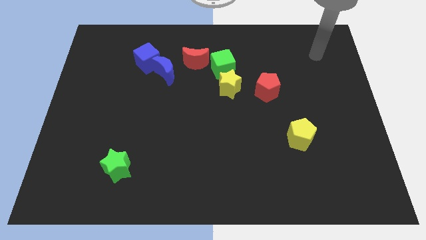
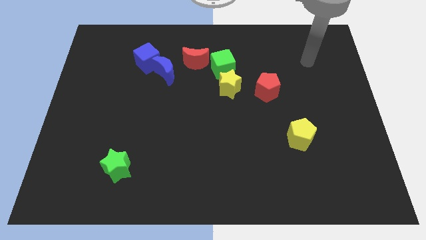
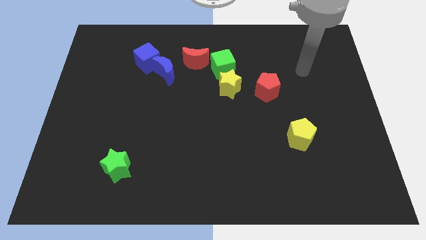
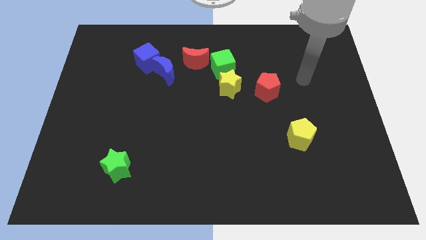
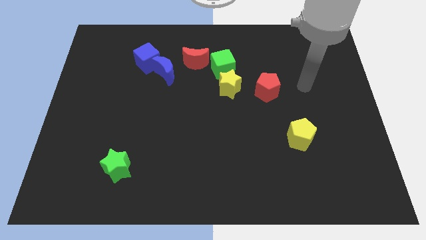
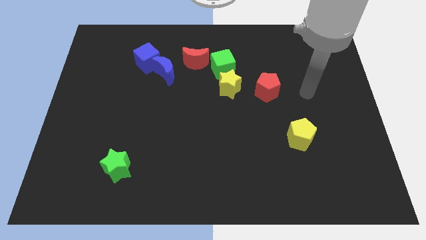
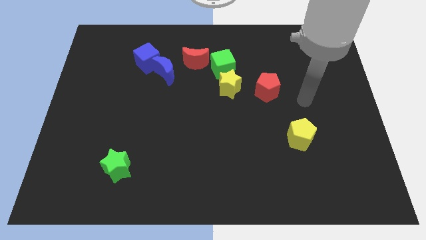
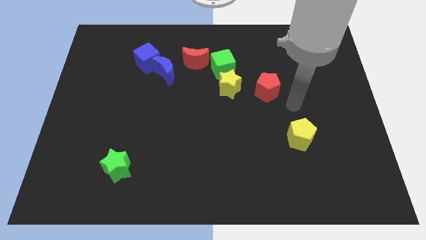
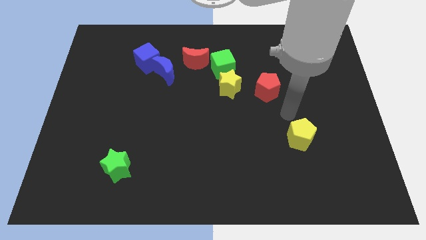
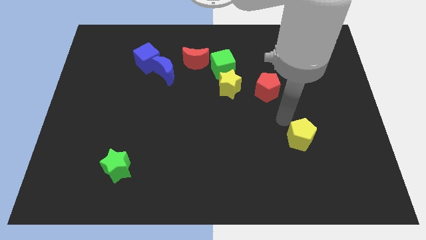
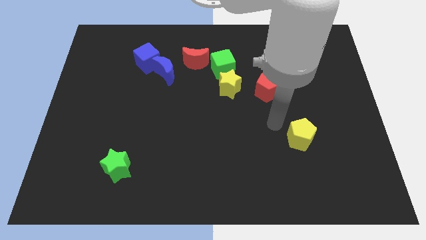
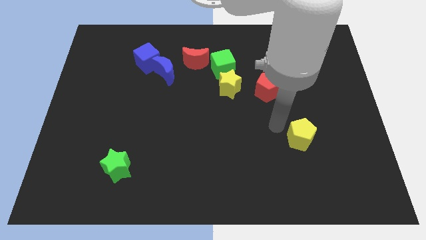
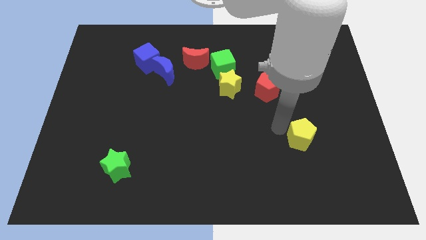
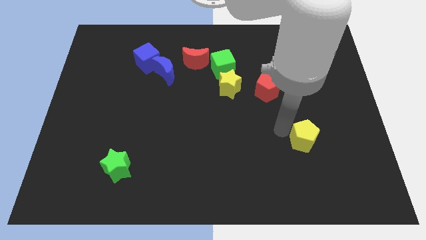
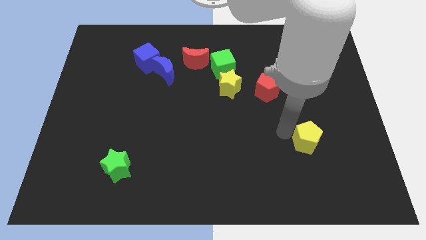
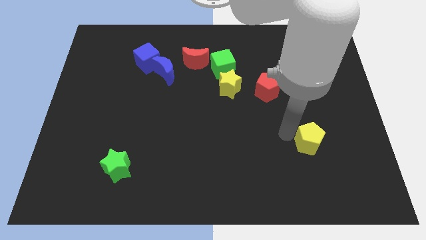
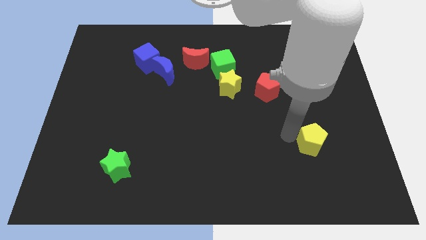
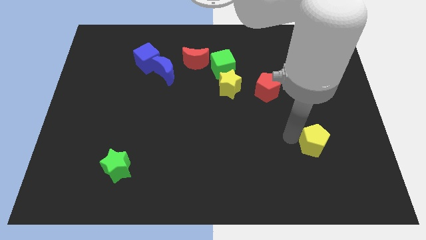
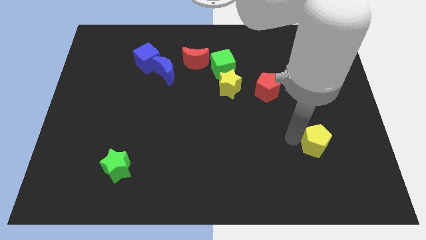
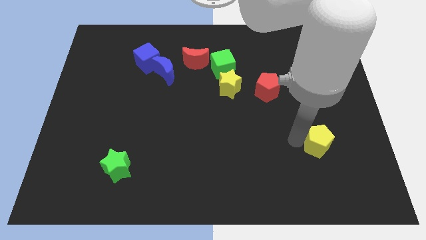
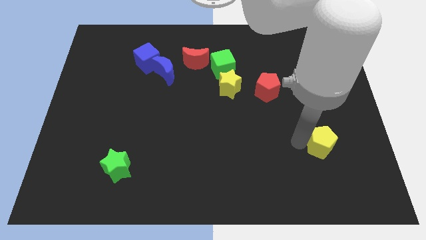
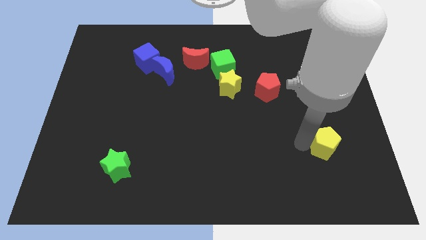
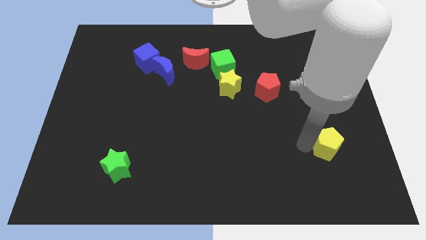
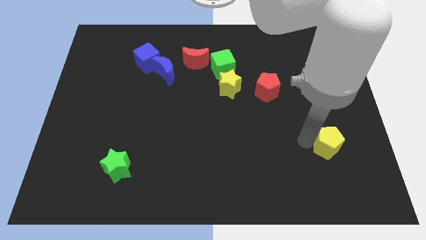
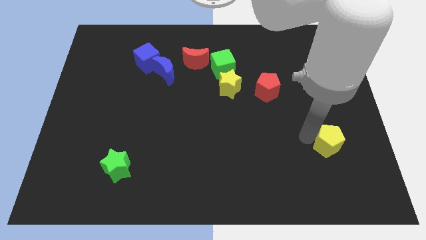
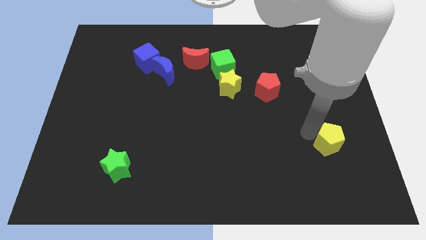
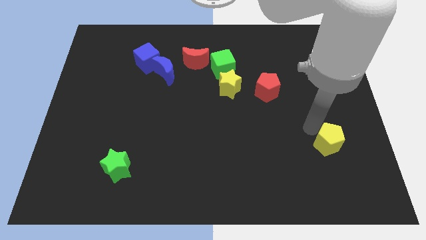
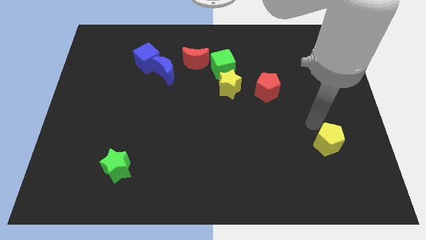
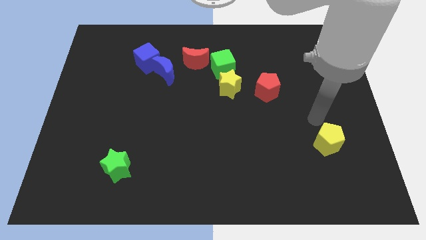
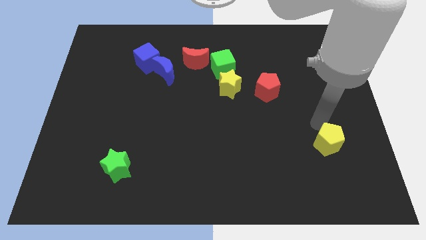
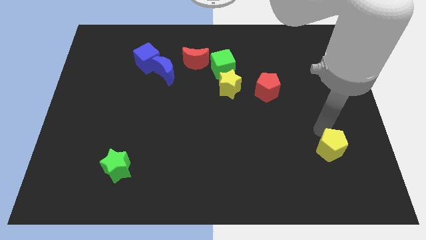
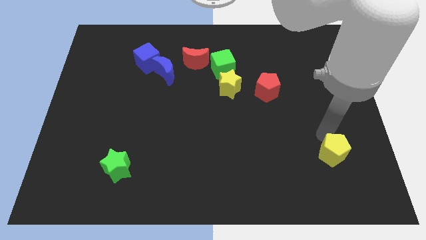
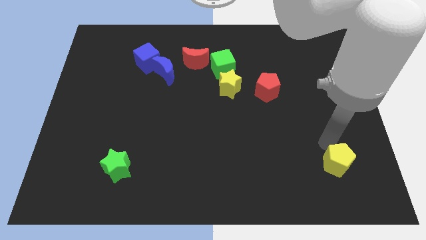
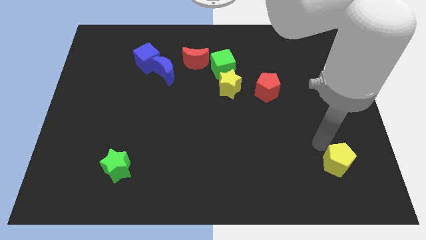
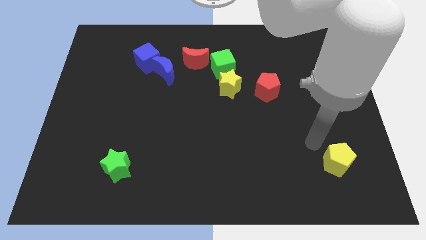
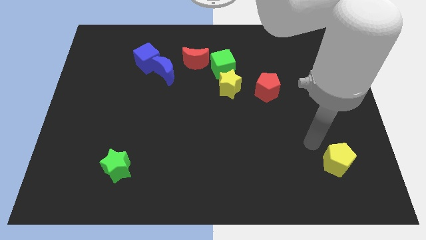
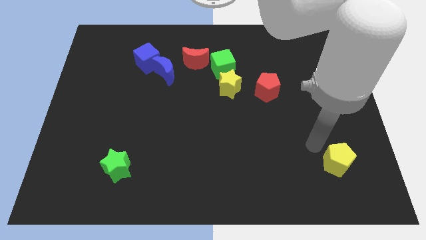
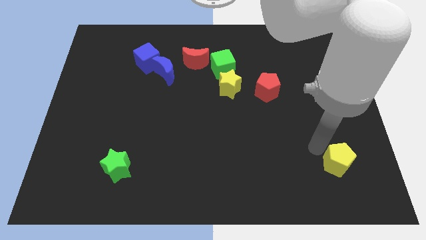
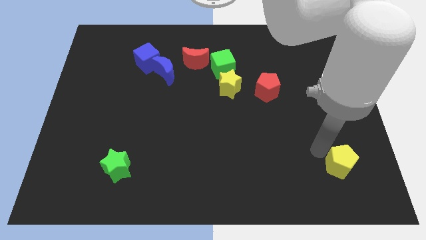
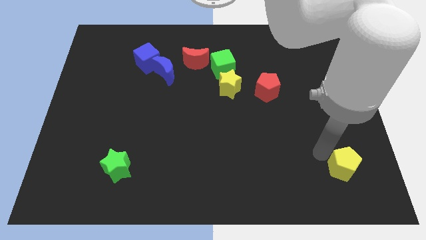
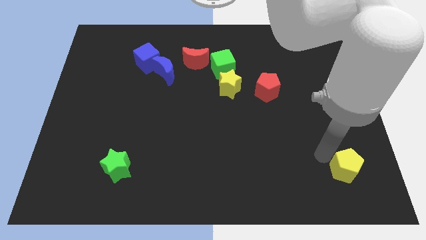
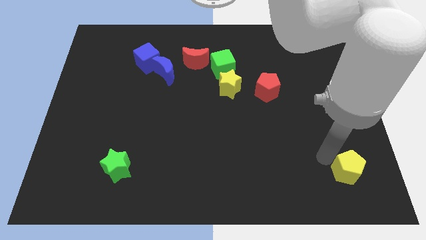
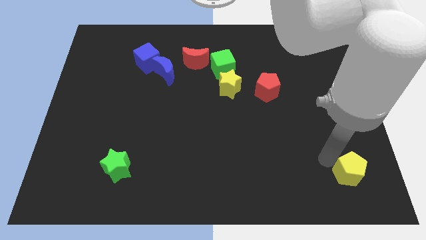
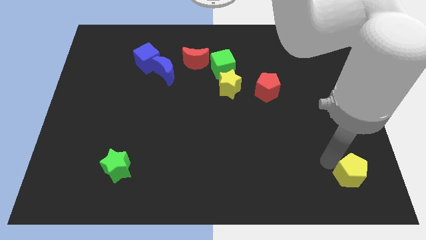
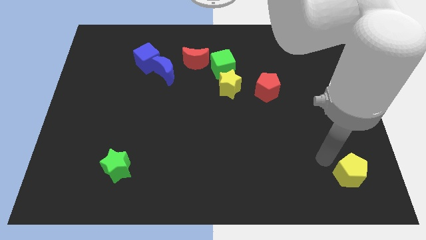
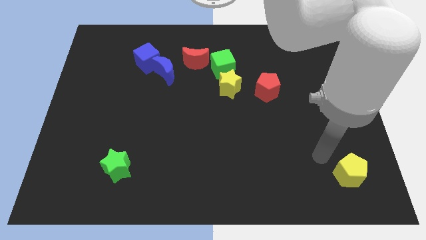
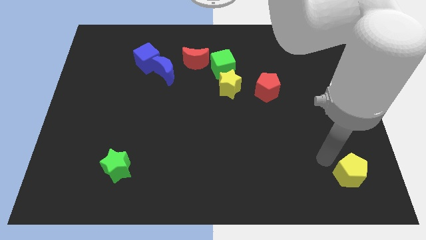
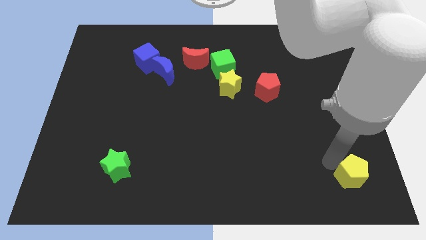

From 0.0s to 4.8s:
put the yellow pentagon to the bottom right of the board

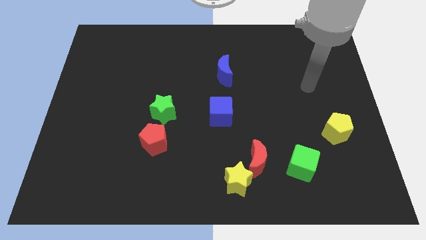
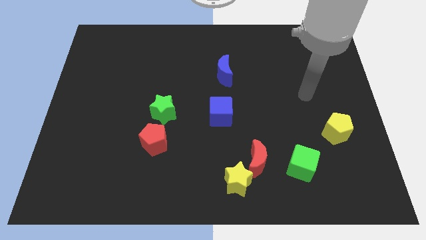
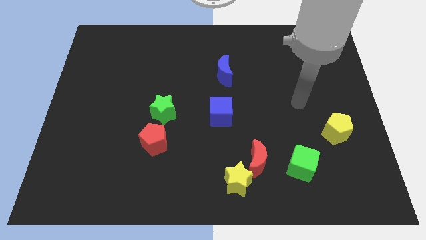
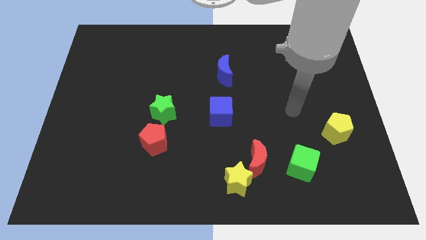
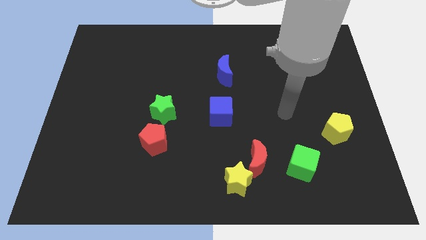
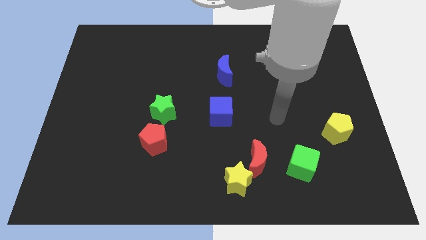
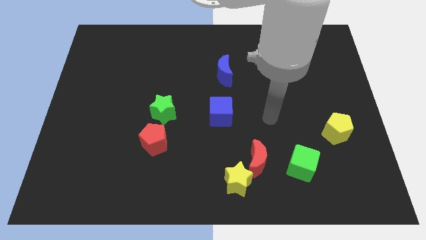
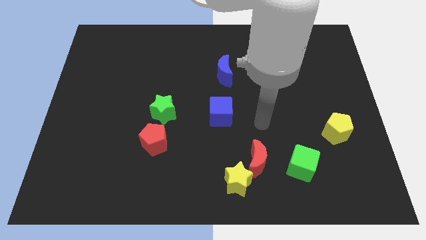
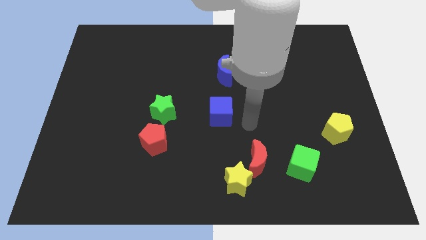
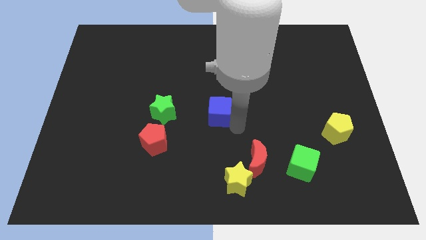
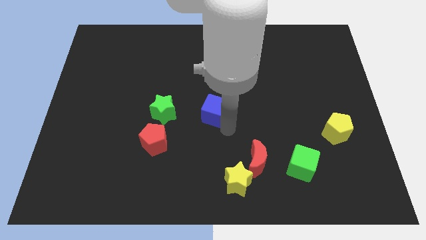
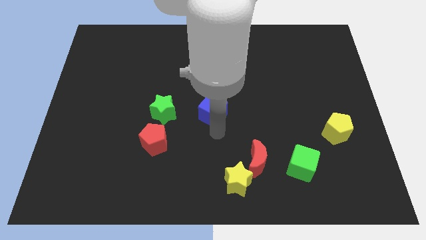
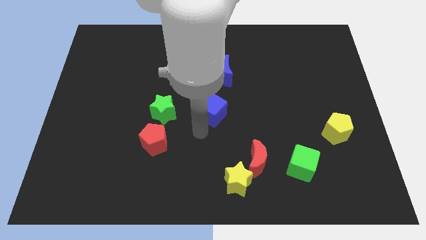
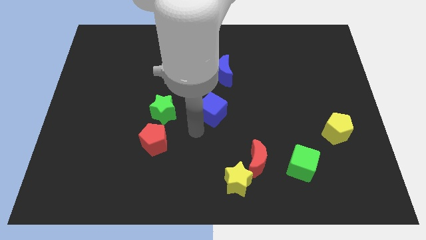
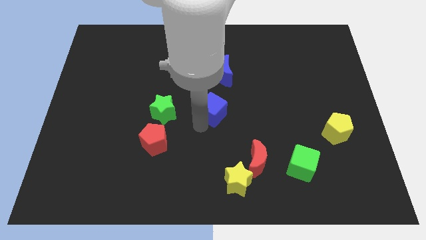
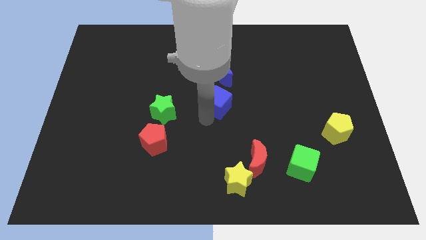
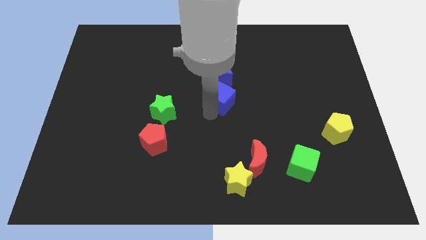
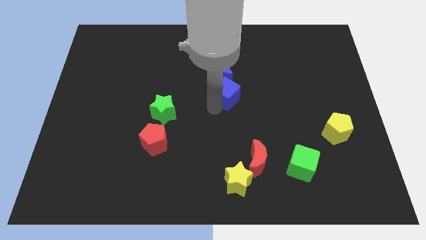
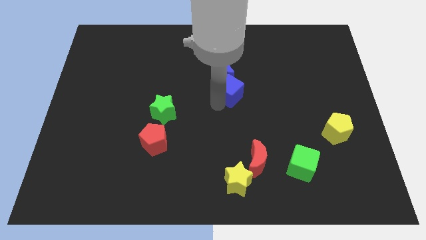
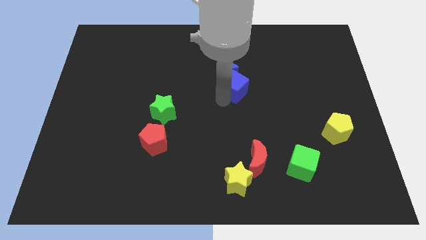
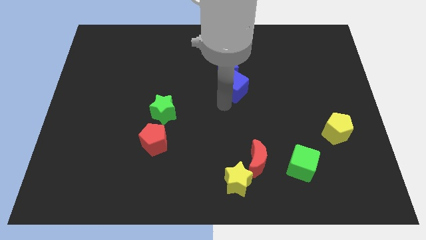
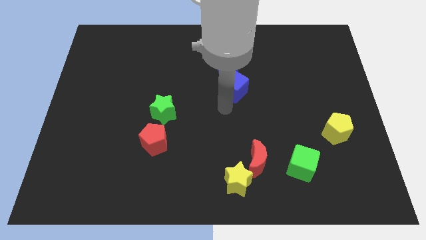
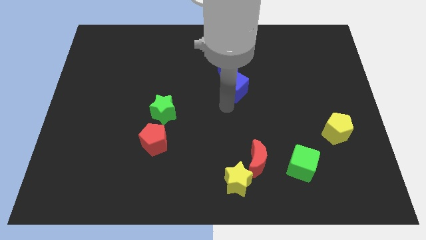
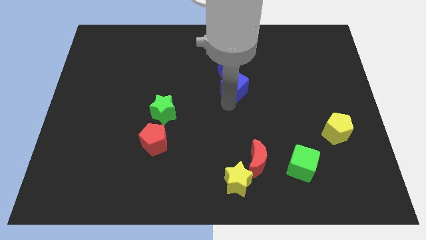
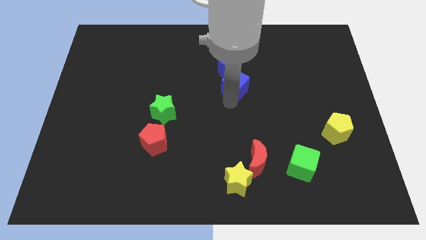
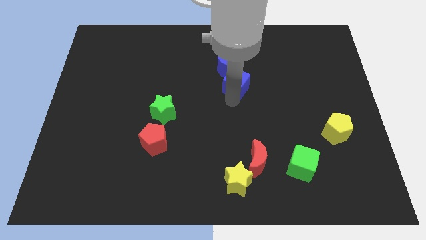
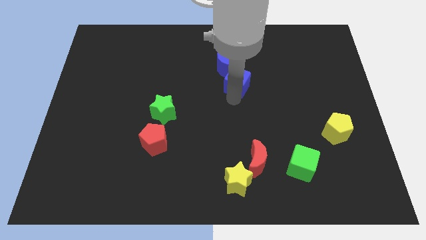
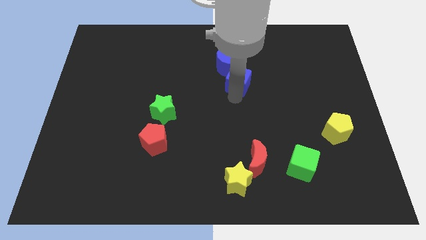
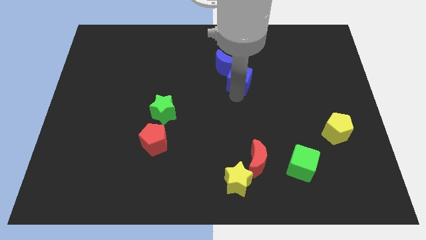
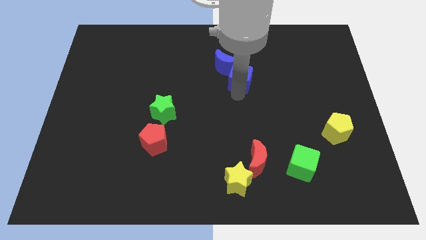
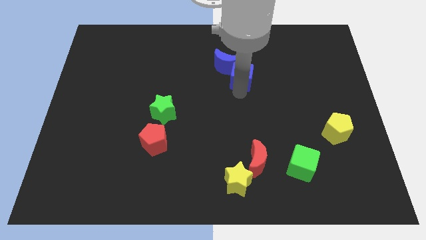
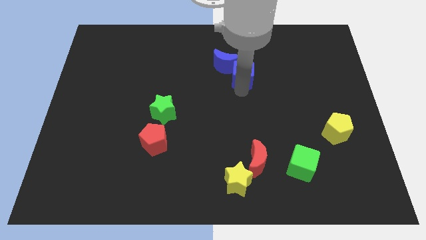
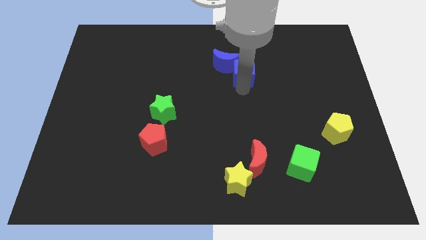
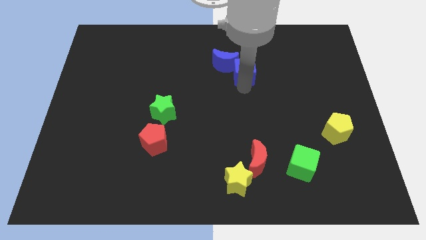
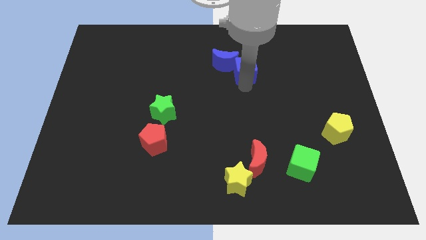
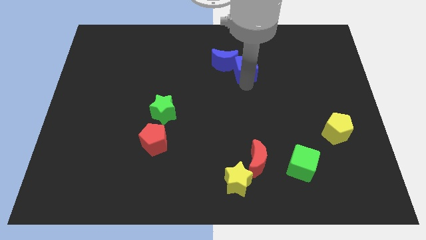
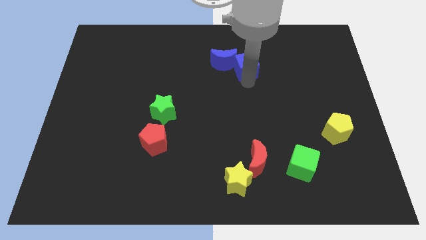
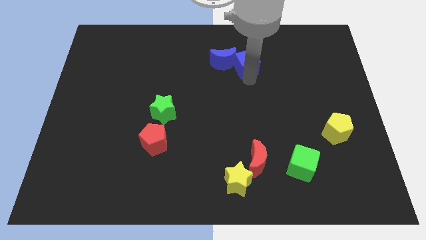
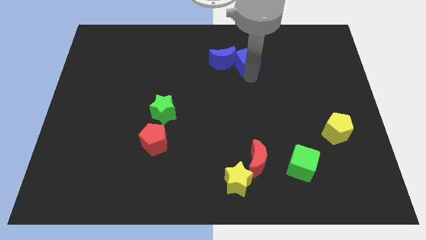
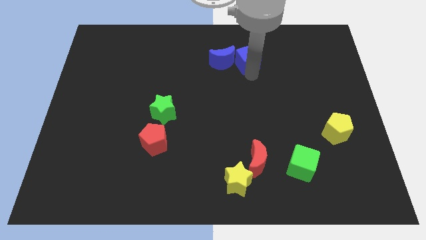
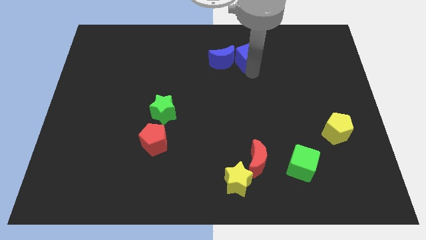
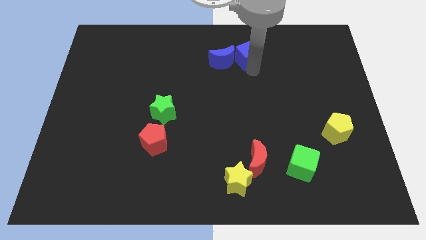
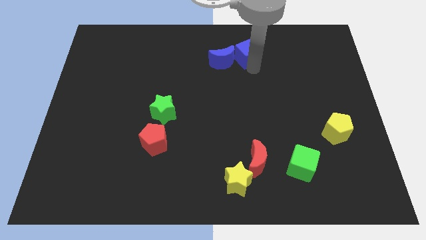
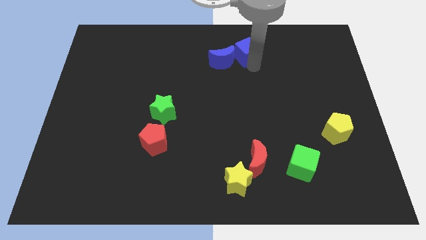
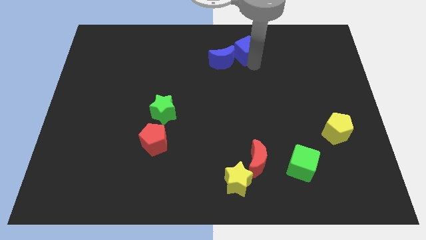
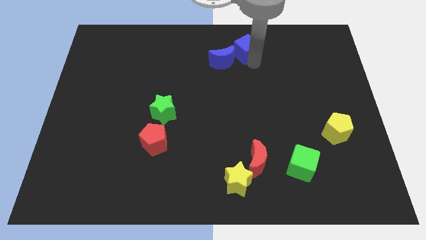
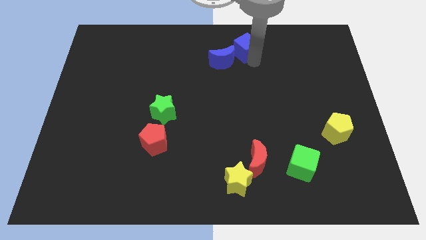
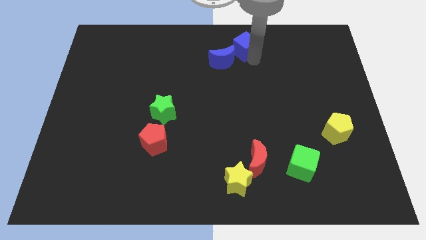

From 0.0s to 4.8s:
push the blue cube to the top
